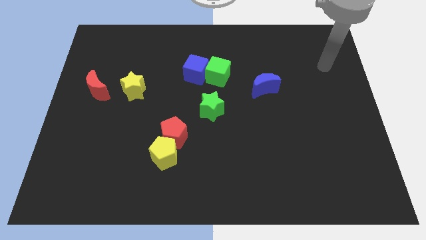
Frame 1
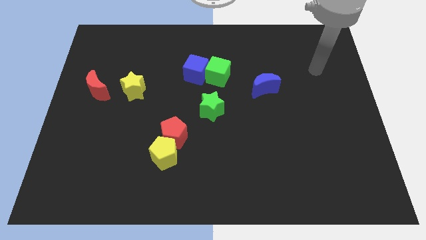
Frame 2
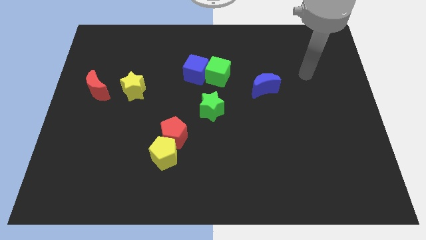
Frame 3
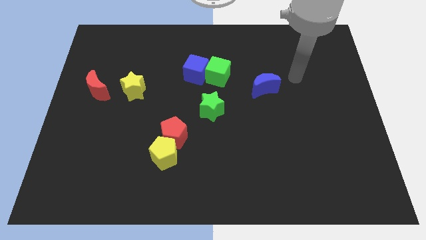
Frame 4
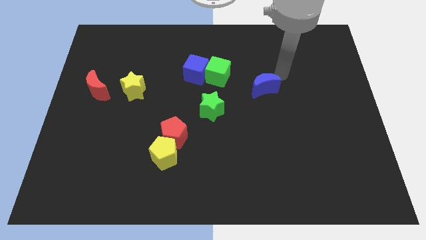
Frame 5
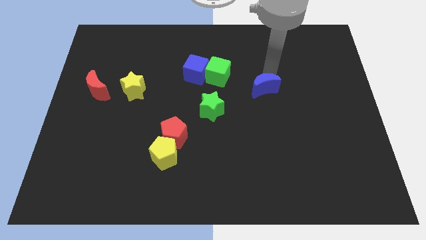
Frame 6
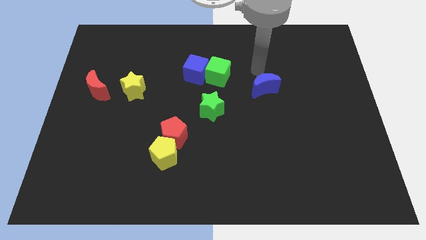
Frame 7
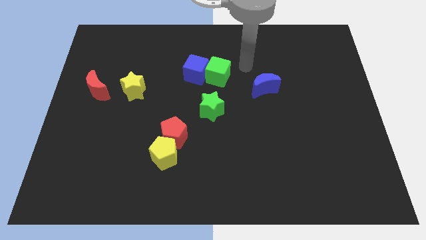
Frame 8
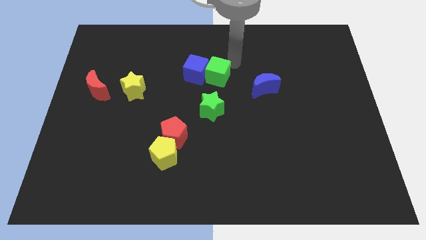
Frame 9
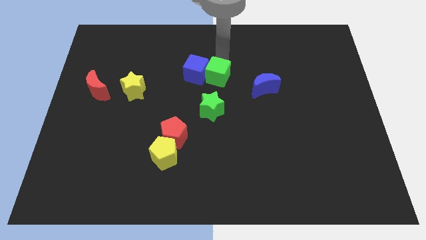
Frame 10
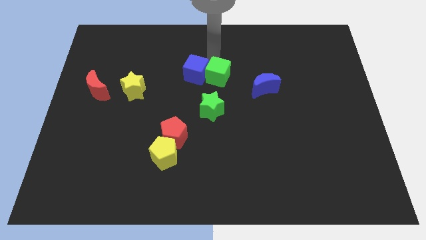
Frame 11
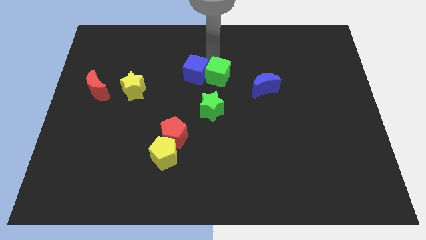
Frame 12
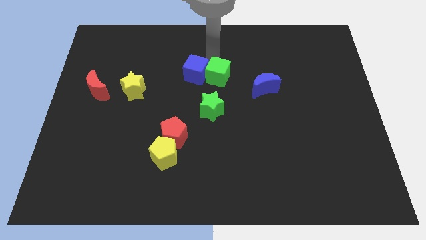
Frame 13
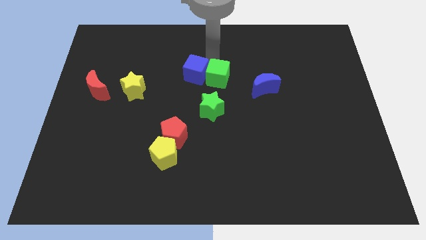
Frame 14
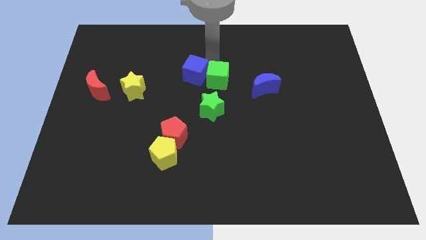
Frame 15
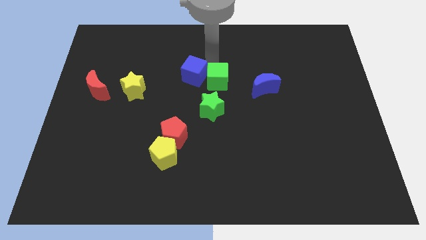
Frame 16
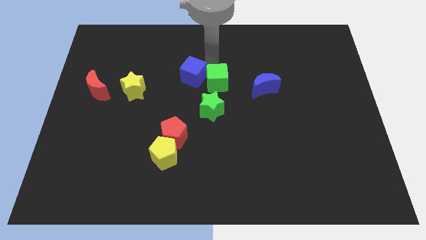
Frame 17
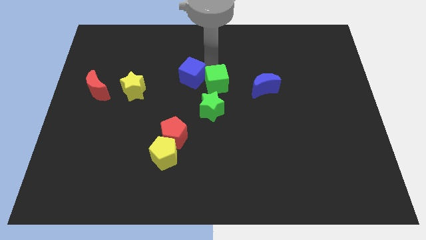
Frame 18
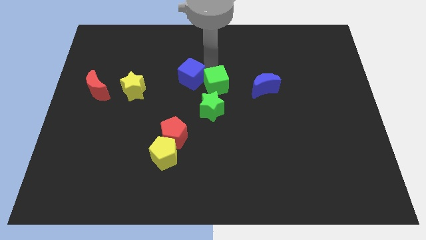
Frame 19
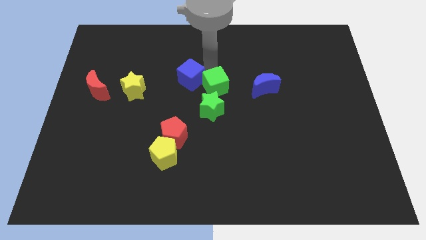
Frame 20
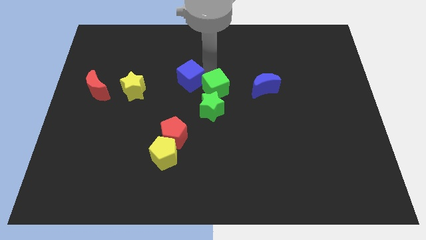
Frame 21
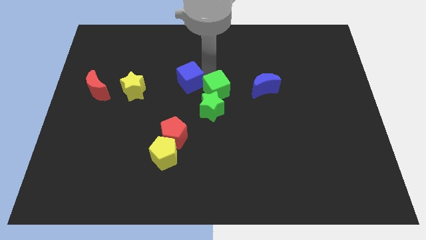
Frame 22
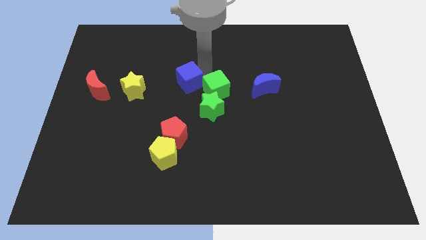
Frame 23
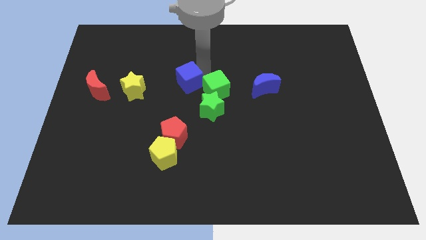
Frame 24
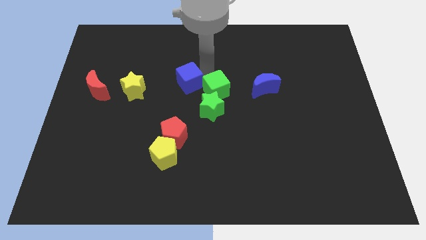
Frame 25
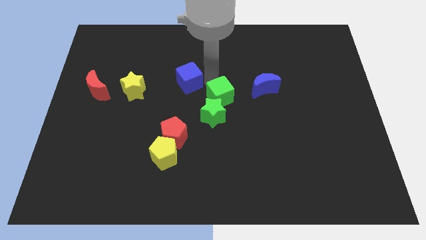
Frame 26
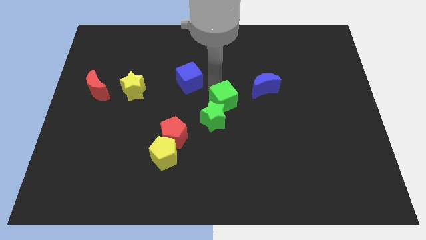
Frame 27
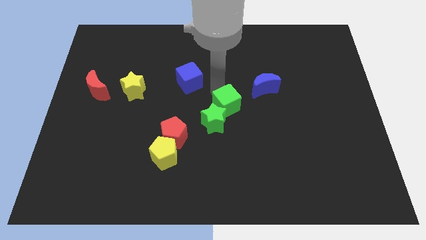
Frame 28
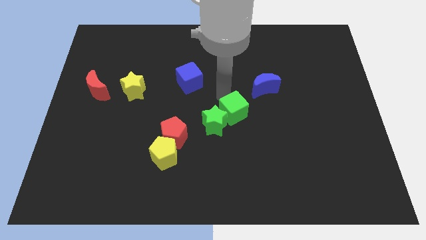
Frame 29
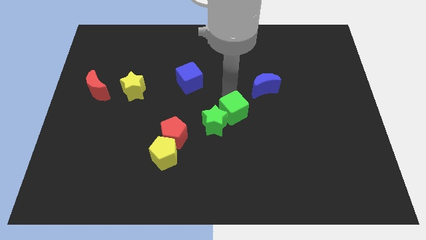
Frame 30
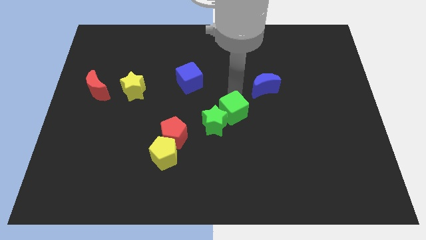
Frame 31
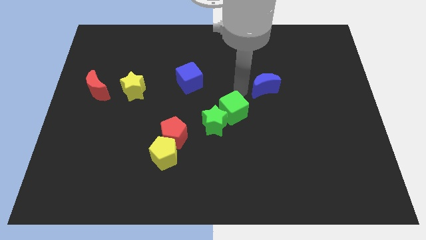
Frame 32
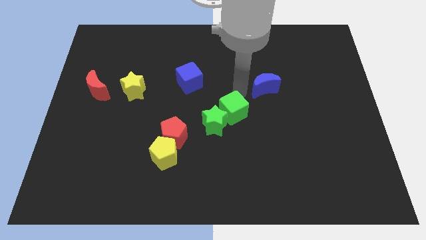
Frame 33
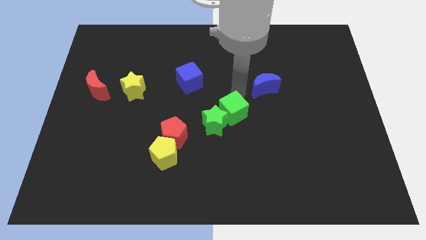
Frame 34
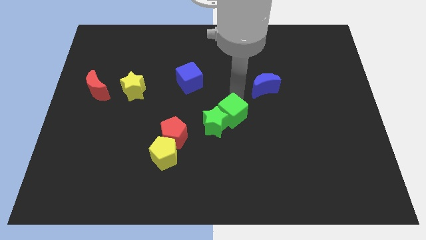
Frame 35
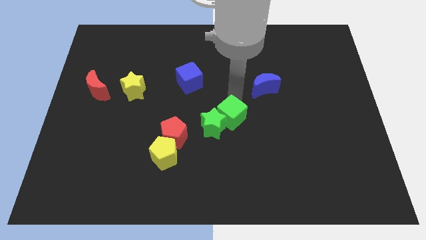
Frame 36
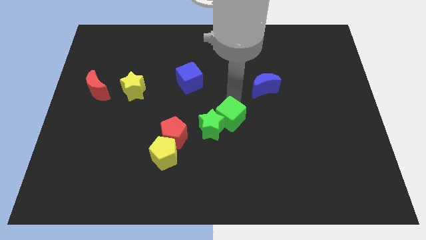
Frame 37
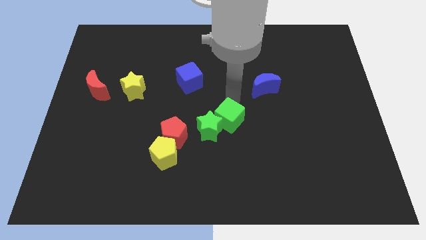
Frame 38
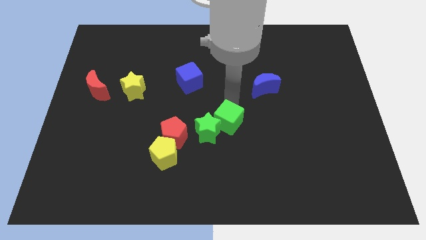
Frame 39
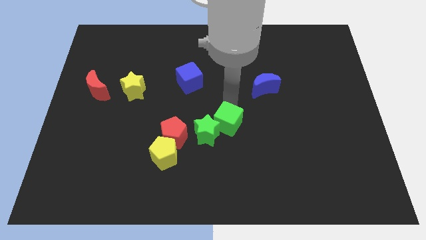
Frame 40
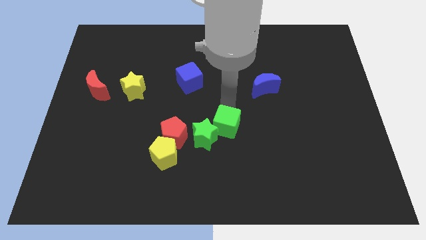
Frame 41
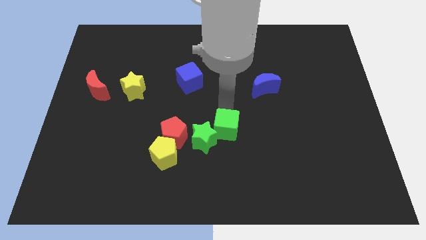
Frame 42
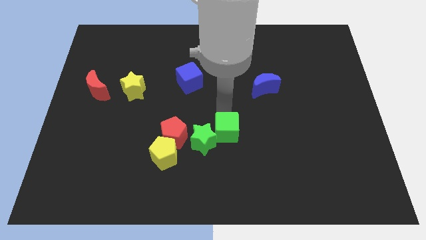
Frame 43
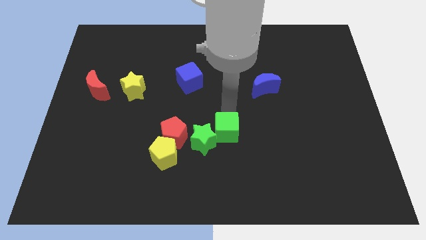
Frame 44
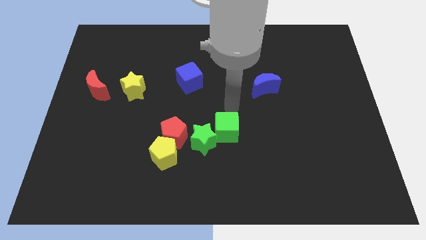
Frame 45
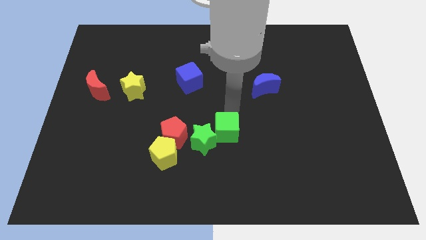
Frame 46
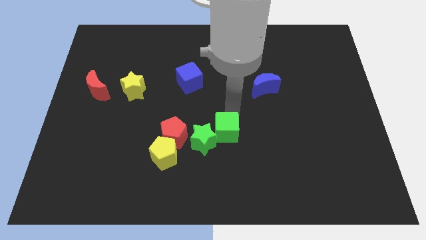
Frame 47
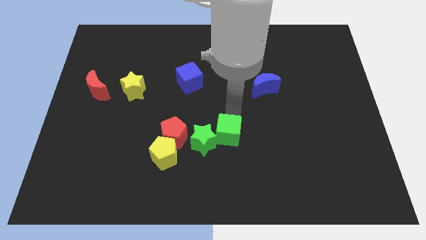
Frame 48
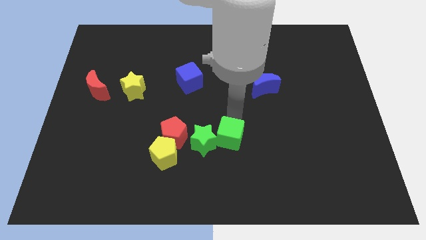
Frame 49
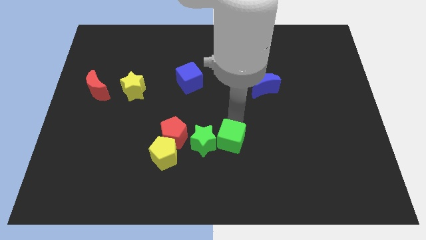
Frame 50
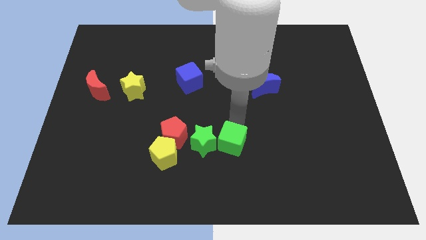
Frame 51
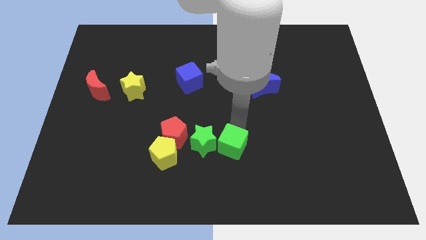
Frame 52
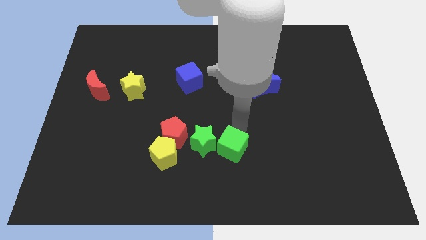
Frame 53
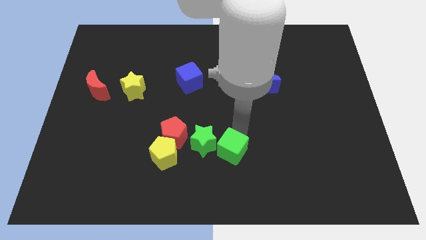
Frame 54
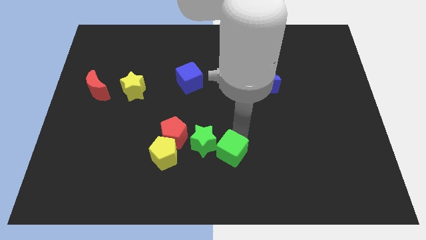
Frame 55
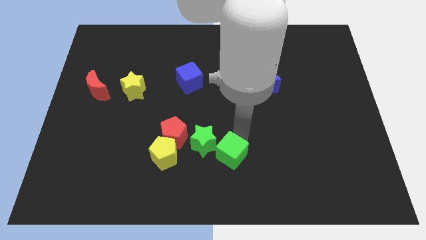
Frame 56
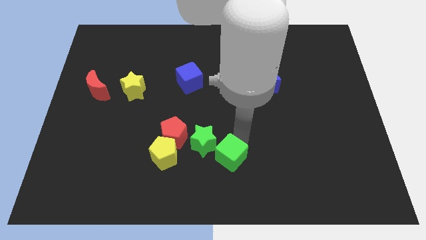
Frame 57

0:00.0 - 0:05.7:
put the green cube to the bottom
